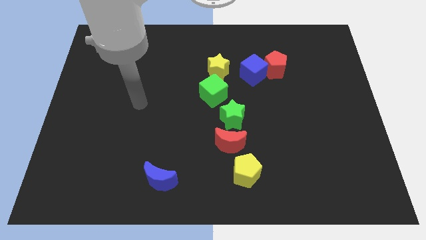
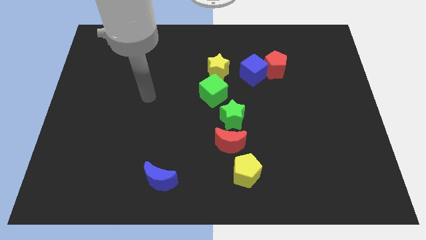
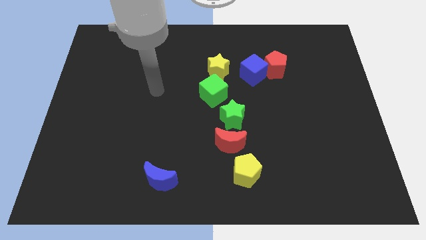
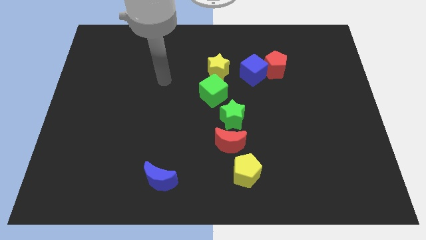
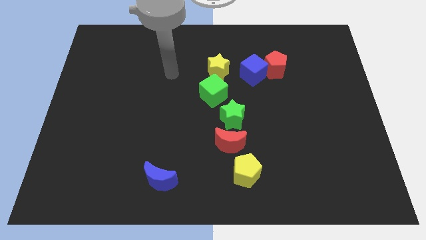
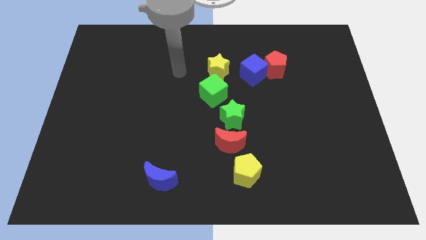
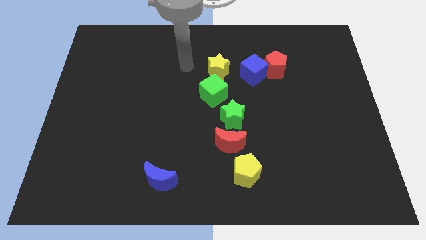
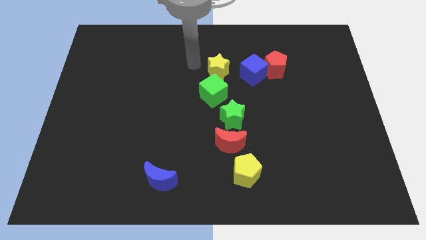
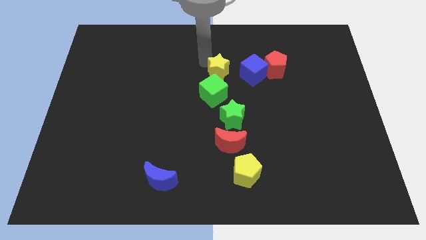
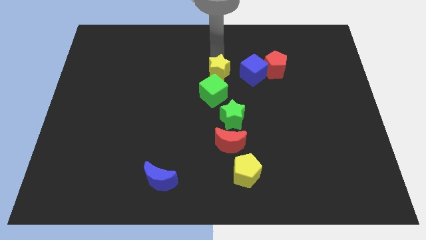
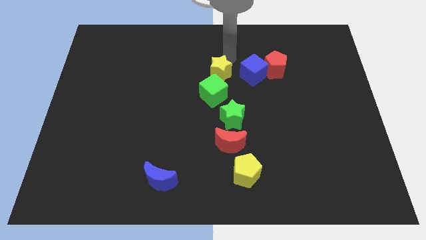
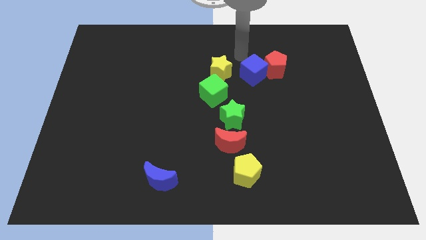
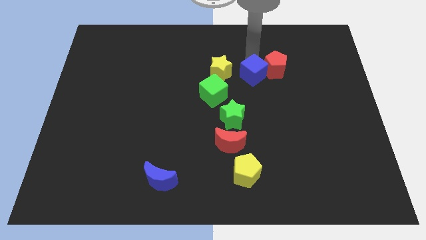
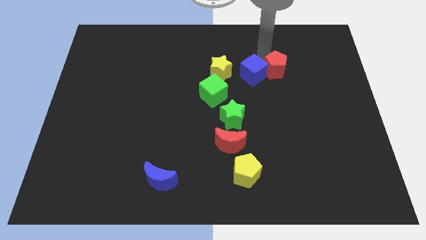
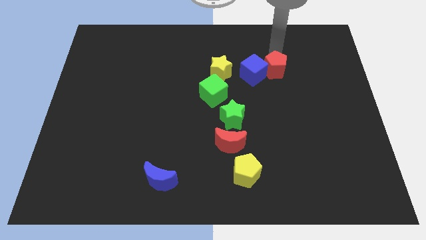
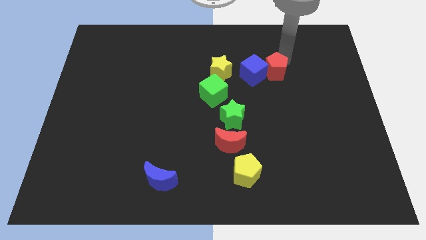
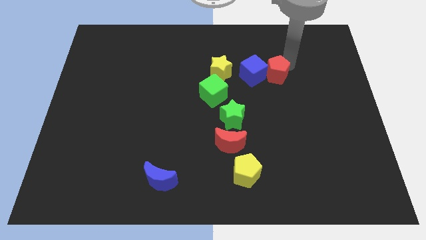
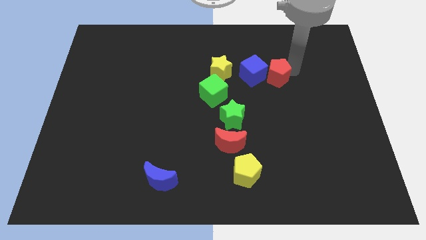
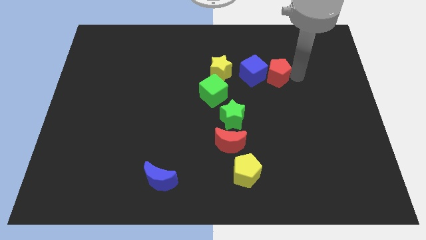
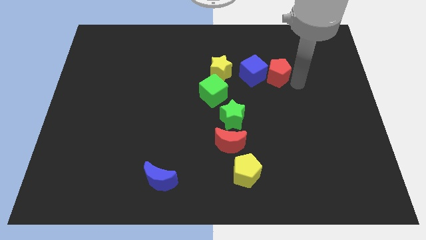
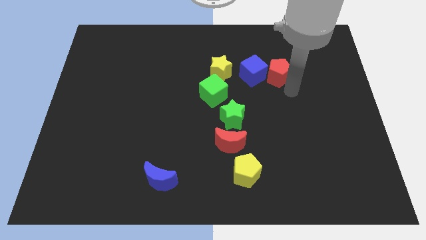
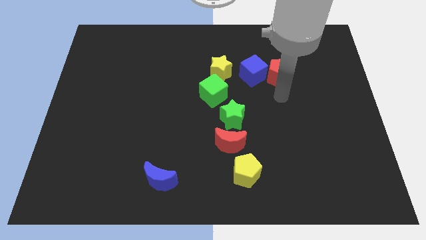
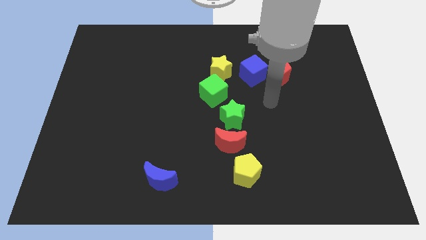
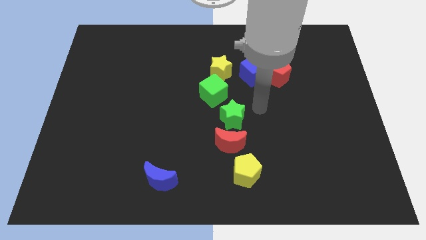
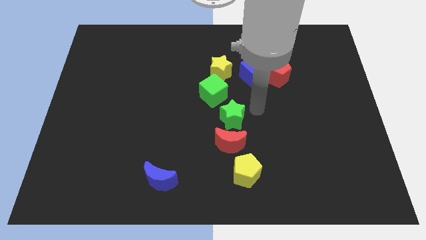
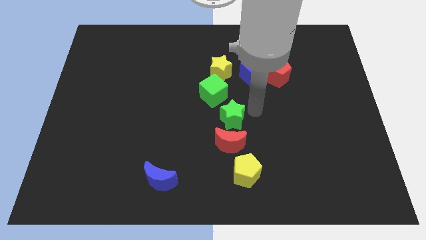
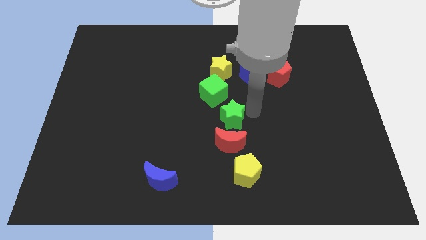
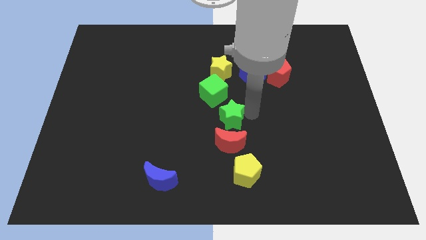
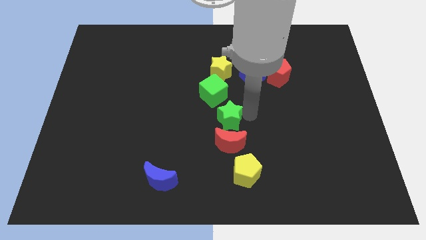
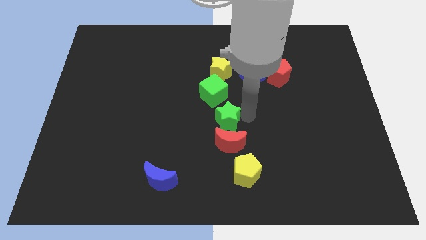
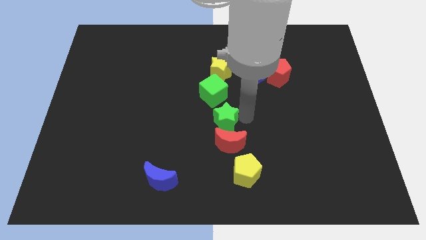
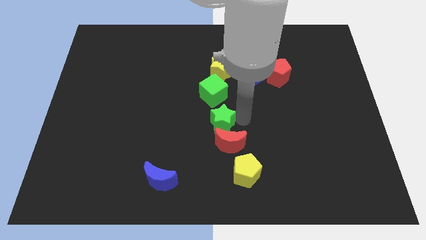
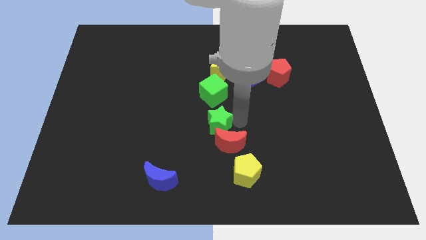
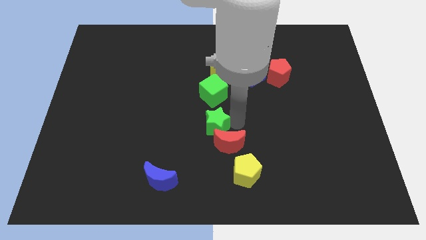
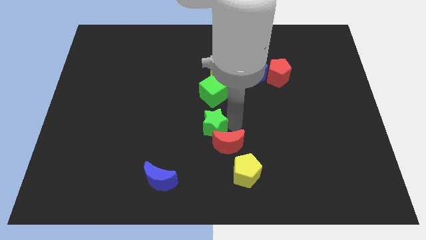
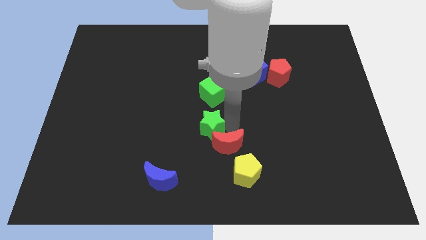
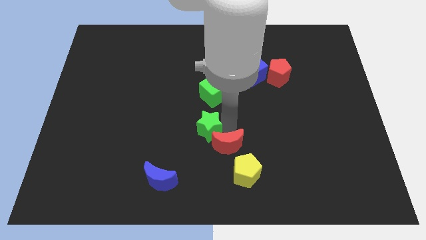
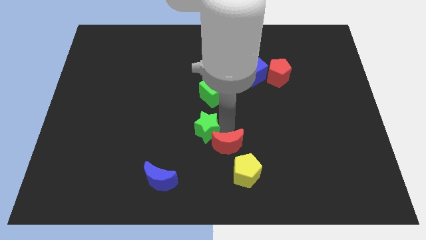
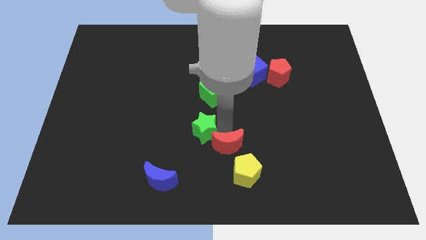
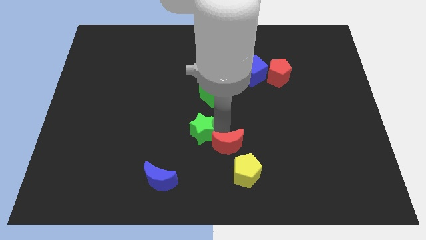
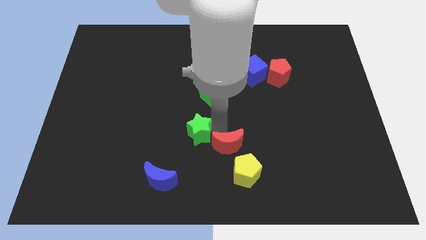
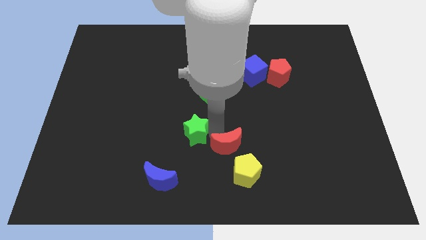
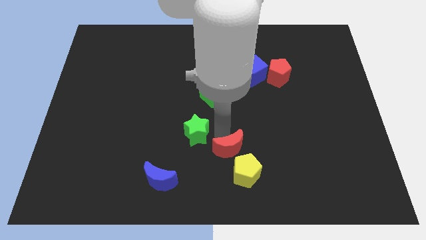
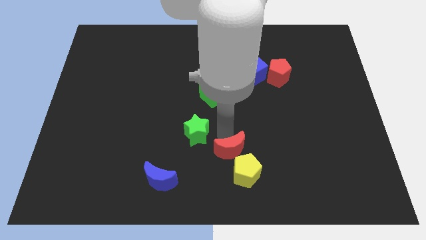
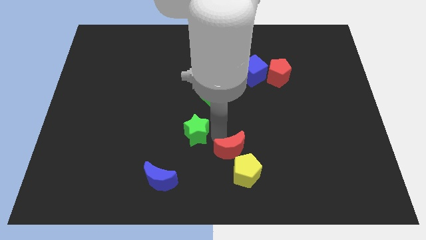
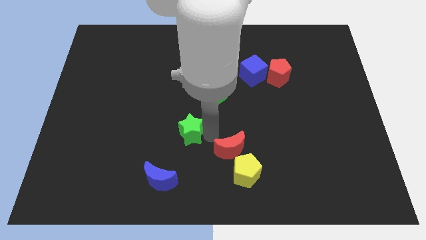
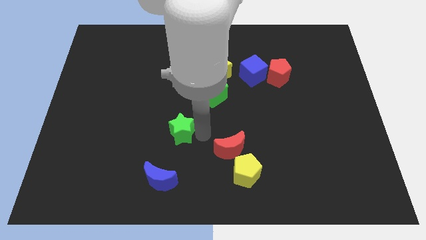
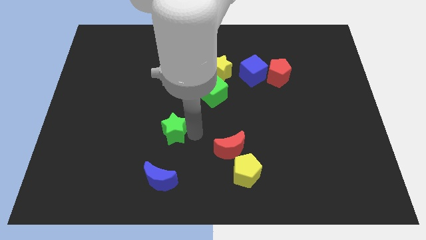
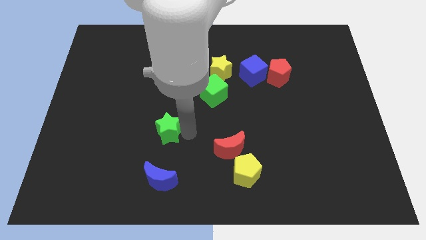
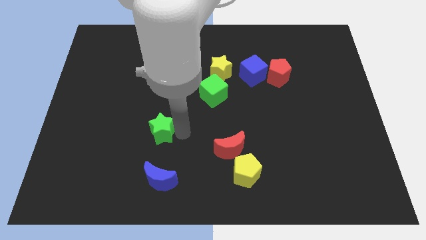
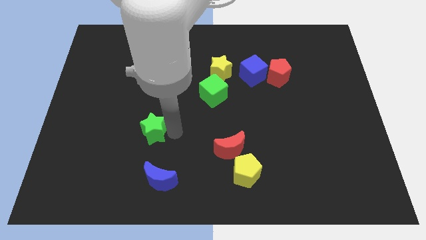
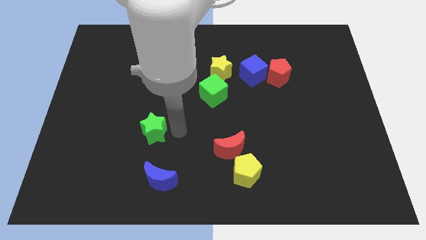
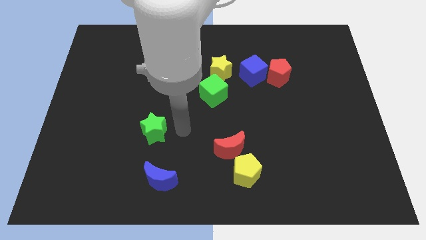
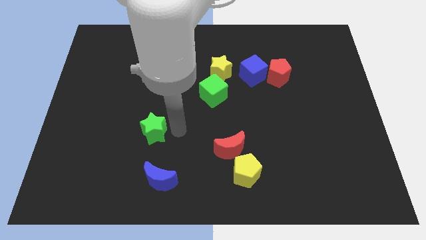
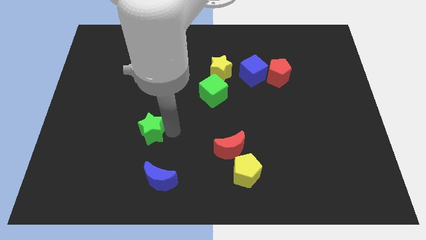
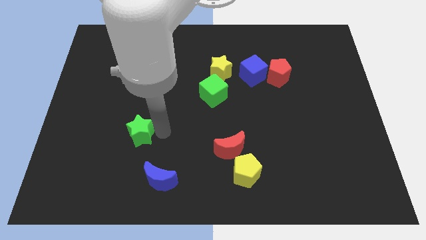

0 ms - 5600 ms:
move the green star to the left

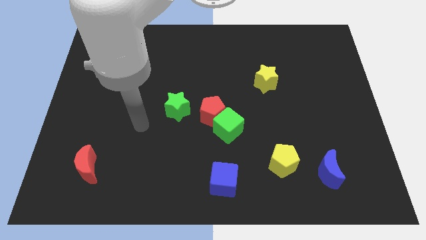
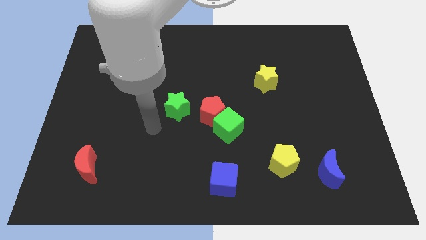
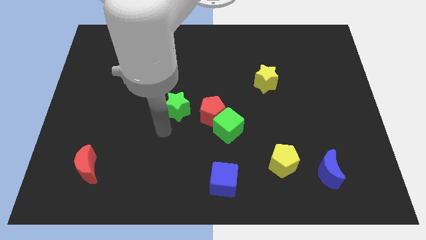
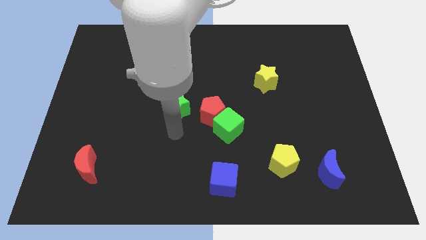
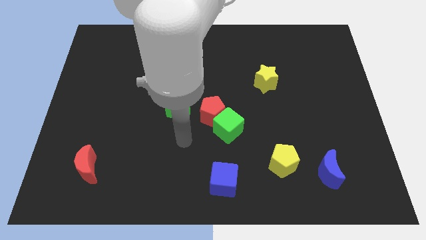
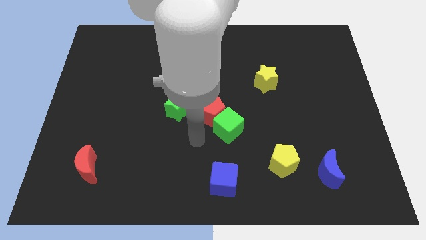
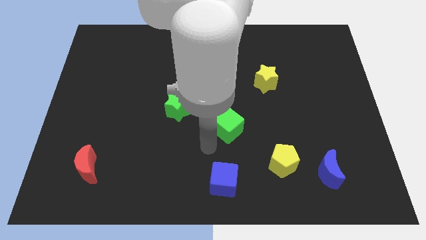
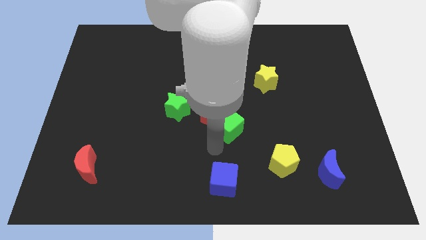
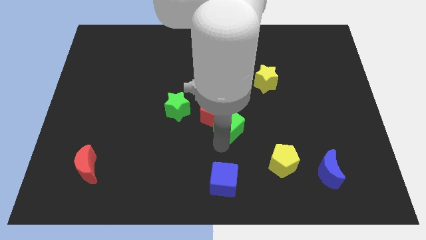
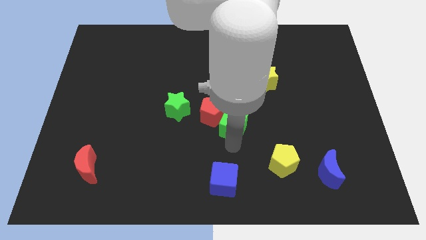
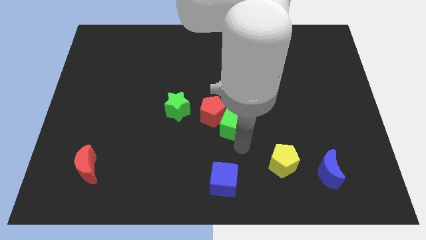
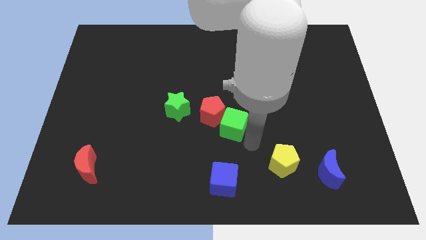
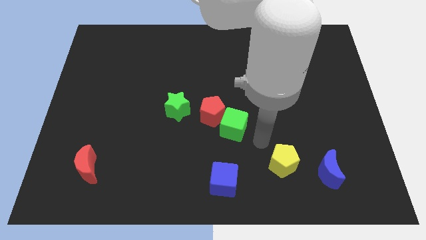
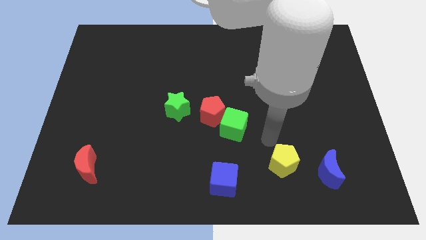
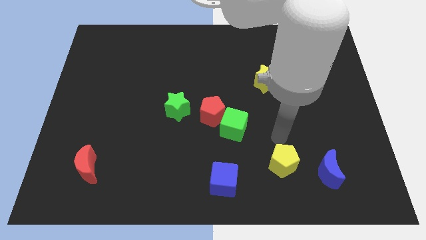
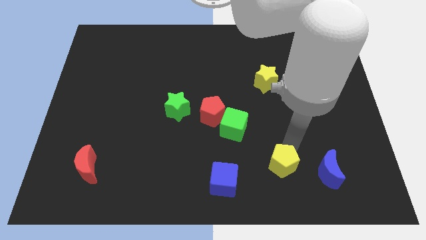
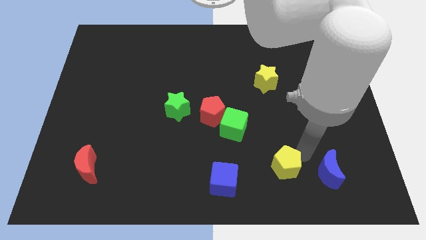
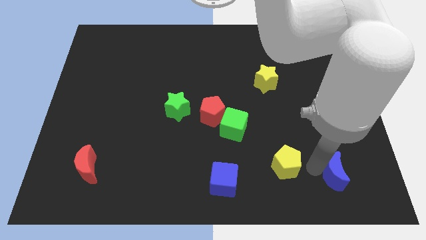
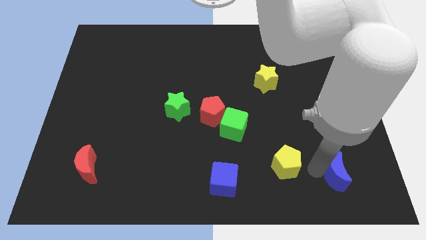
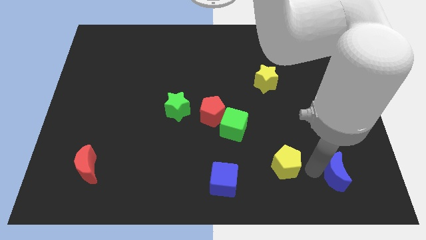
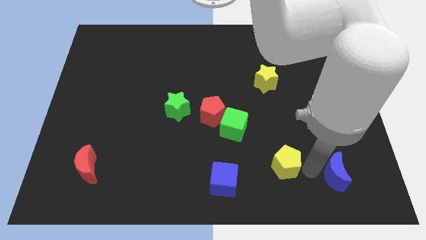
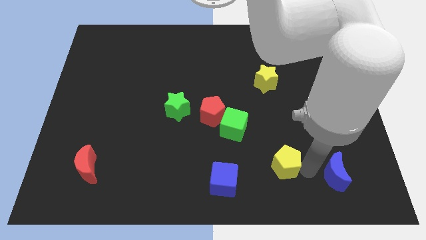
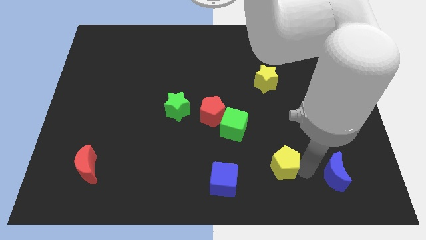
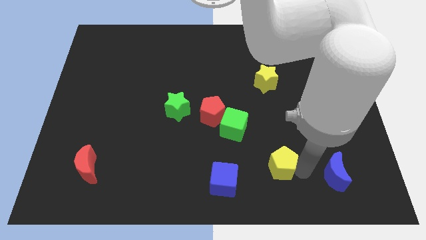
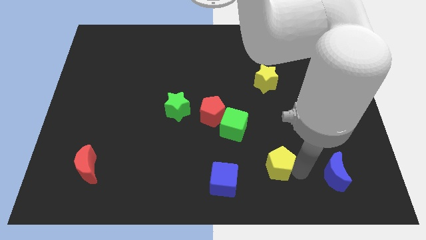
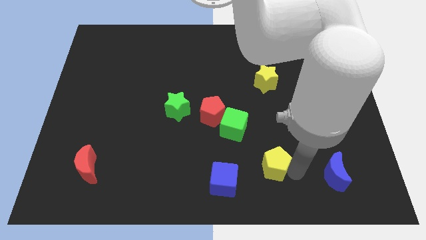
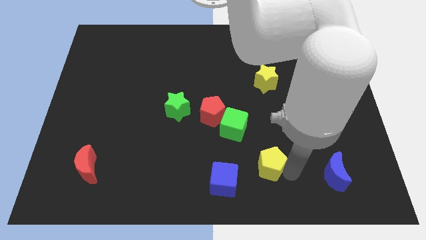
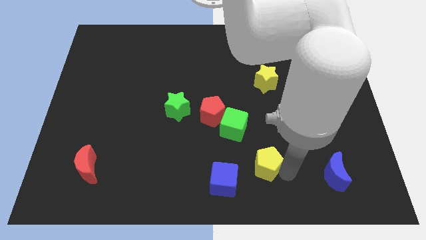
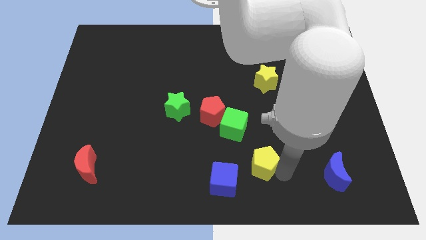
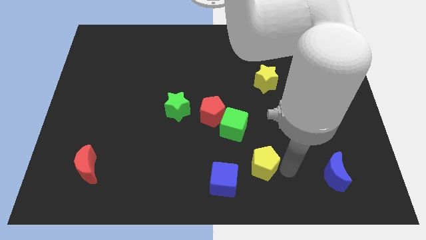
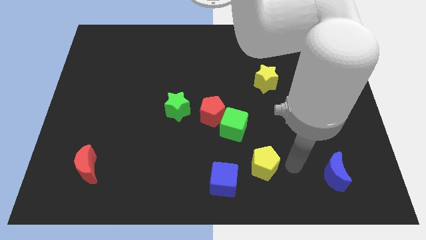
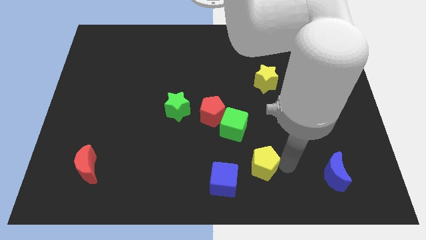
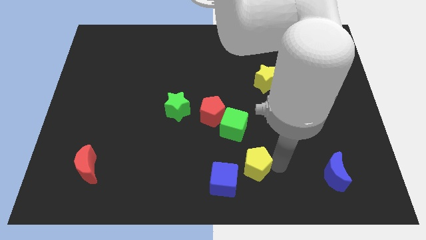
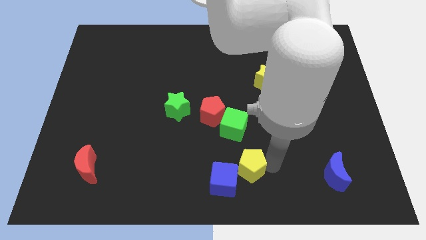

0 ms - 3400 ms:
slightly move the yellow pentagon left
